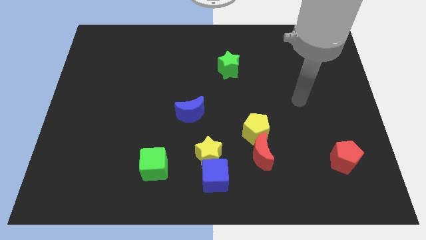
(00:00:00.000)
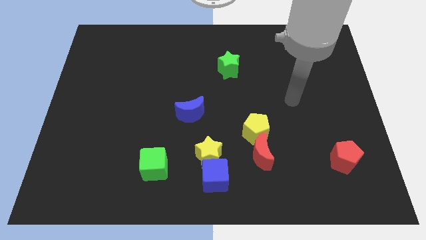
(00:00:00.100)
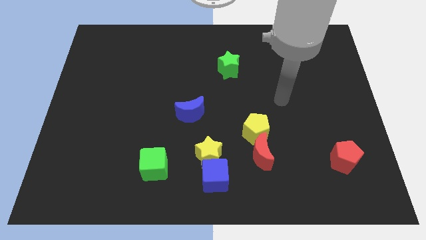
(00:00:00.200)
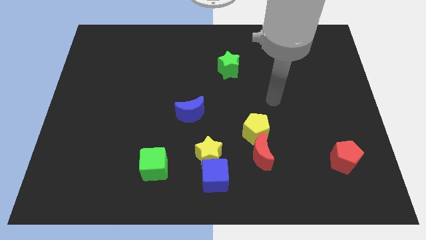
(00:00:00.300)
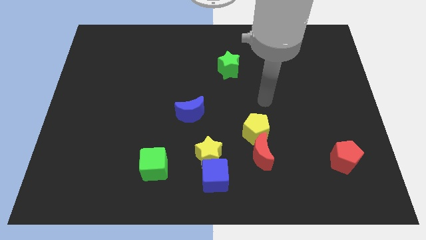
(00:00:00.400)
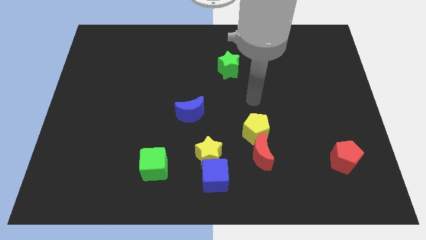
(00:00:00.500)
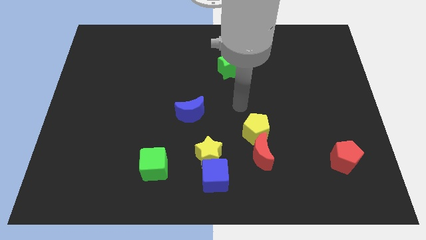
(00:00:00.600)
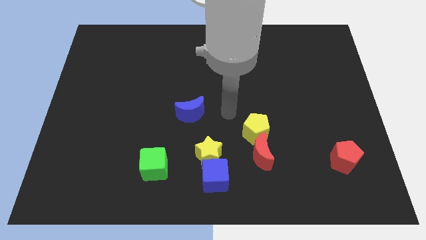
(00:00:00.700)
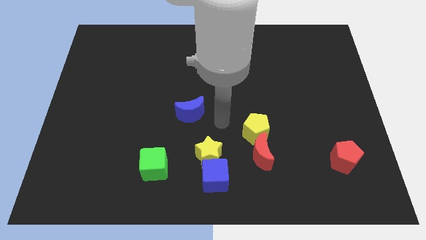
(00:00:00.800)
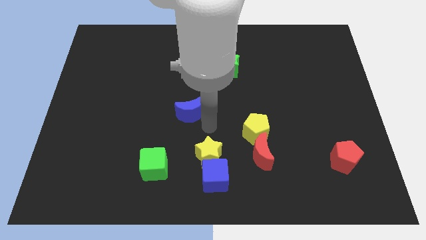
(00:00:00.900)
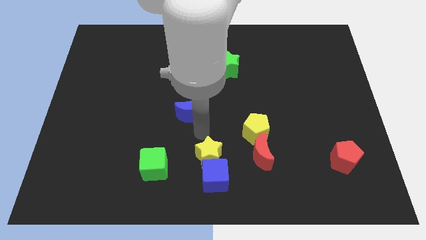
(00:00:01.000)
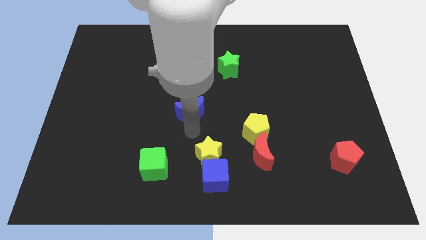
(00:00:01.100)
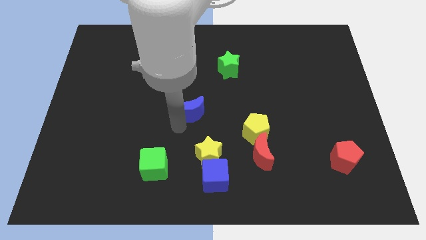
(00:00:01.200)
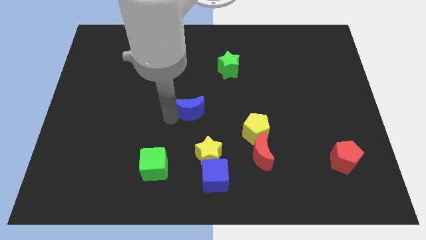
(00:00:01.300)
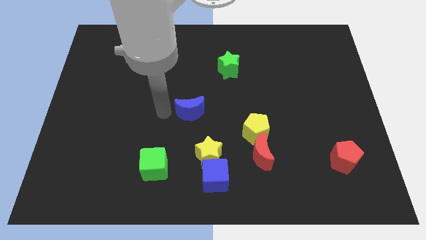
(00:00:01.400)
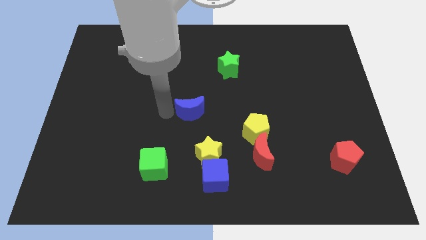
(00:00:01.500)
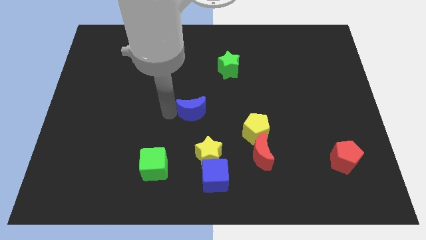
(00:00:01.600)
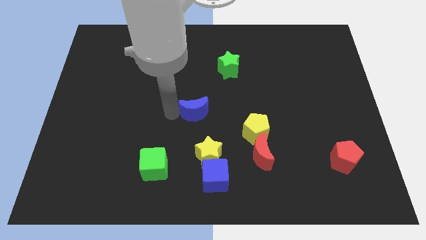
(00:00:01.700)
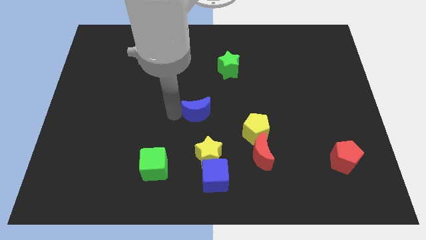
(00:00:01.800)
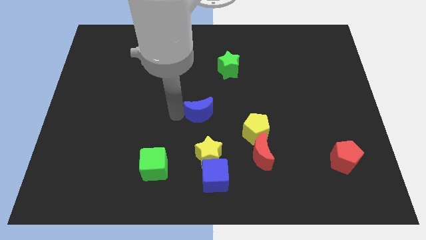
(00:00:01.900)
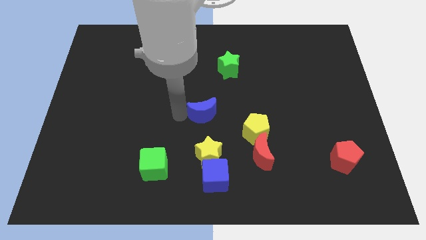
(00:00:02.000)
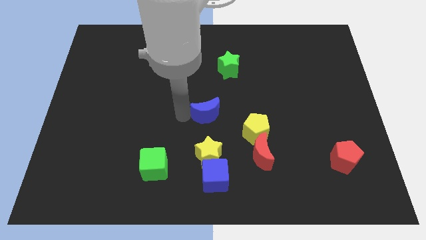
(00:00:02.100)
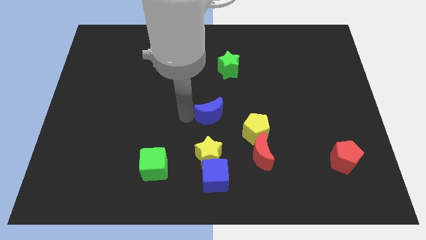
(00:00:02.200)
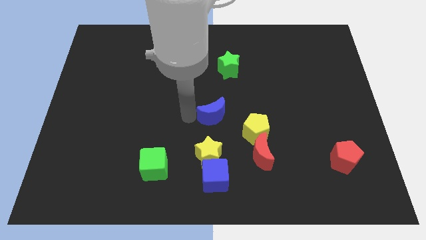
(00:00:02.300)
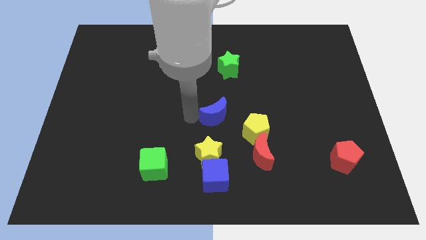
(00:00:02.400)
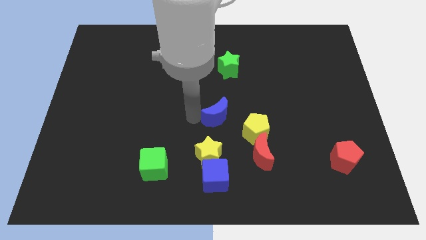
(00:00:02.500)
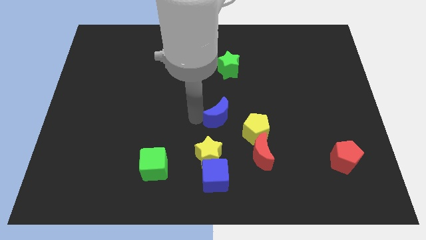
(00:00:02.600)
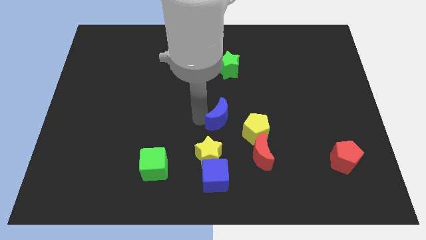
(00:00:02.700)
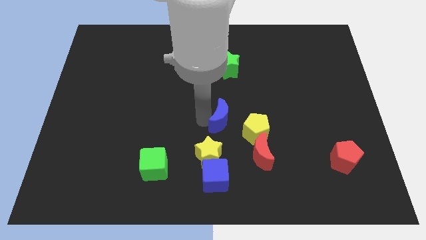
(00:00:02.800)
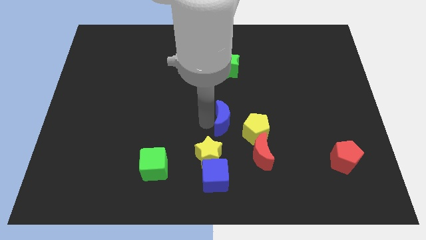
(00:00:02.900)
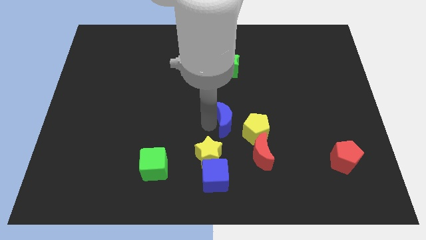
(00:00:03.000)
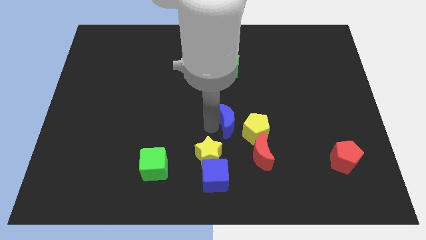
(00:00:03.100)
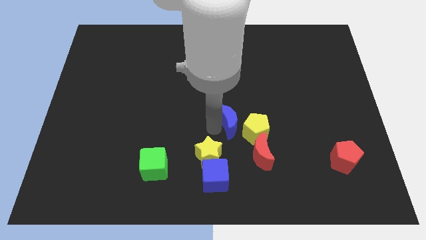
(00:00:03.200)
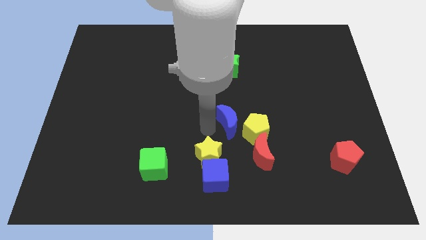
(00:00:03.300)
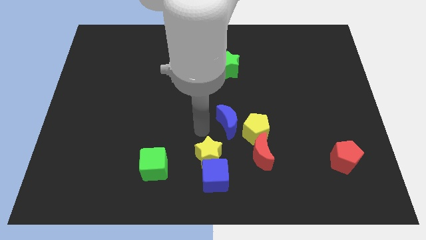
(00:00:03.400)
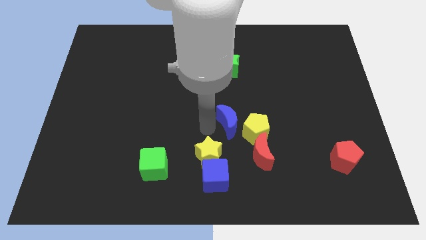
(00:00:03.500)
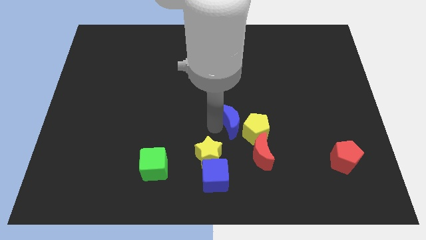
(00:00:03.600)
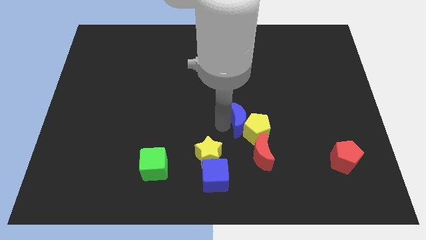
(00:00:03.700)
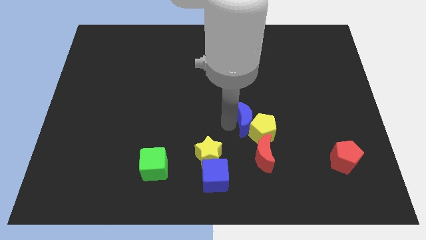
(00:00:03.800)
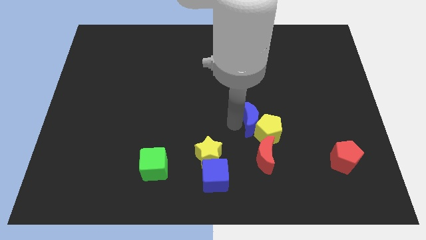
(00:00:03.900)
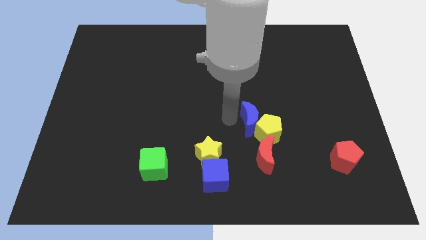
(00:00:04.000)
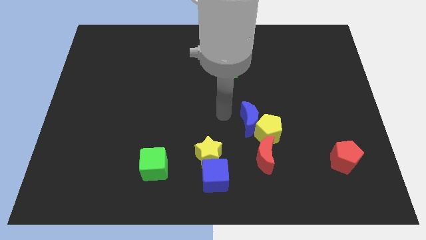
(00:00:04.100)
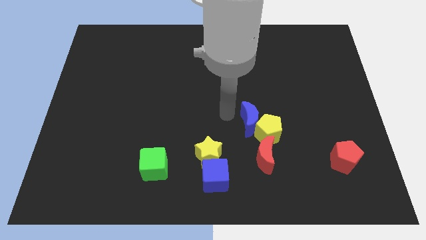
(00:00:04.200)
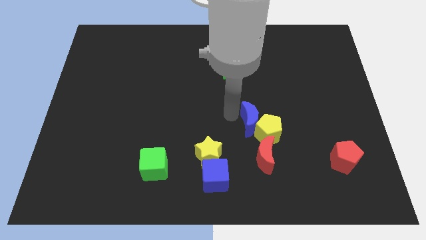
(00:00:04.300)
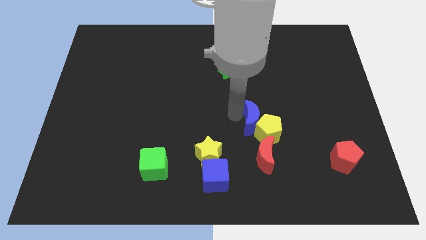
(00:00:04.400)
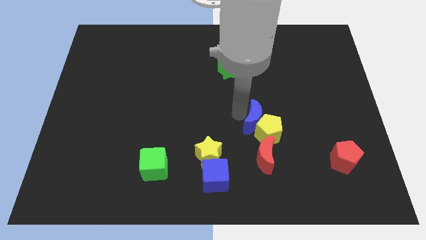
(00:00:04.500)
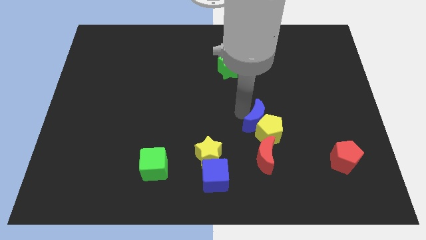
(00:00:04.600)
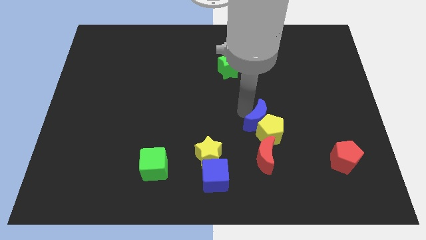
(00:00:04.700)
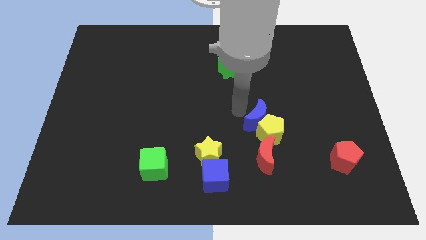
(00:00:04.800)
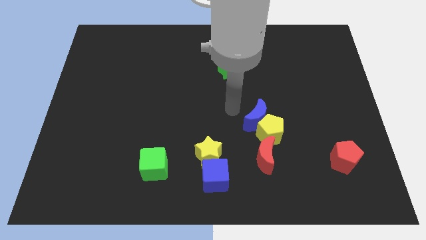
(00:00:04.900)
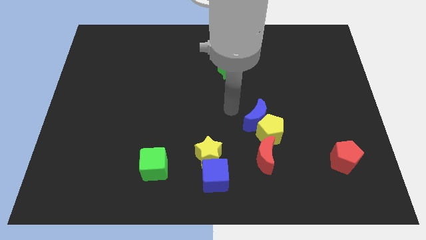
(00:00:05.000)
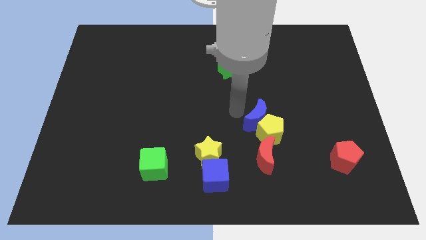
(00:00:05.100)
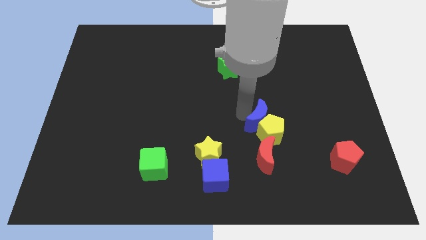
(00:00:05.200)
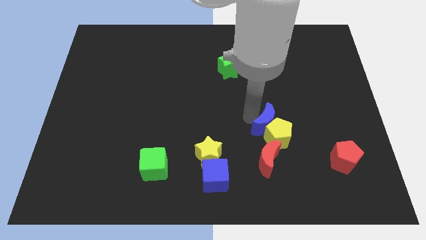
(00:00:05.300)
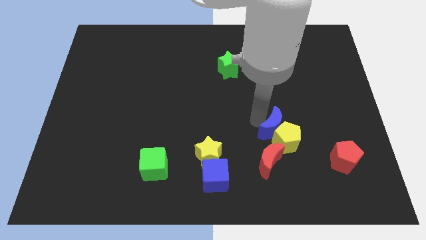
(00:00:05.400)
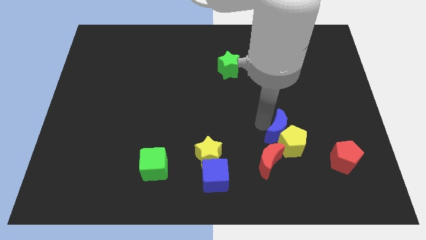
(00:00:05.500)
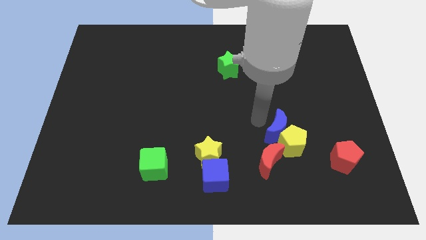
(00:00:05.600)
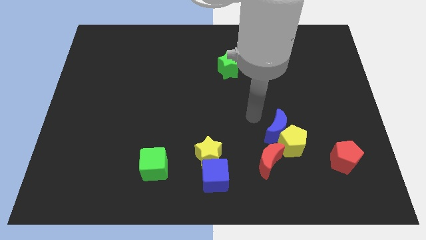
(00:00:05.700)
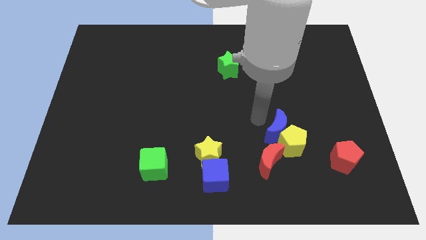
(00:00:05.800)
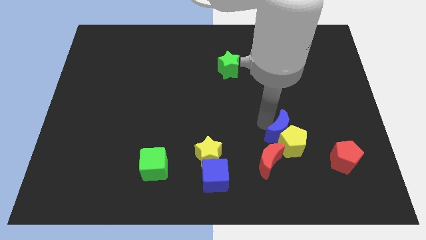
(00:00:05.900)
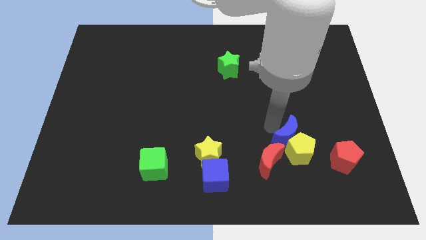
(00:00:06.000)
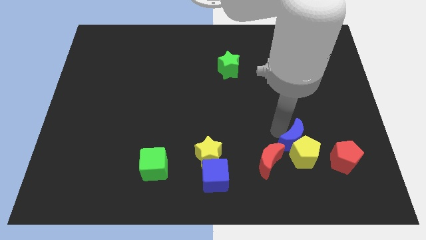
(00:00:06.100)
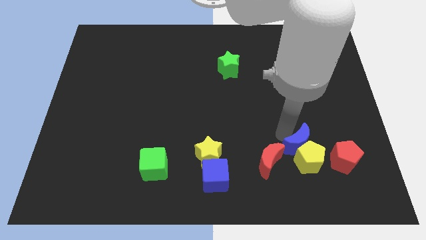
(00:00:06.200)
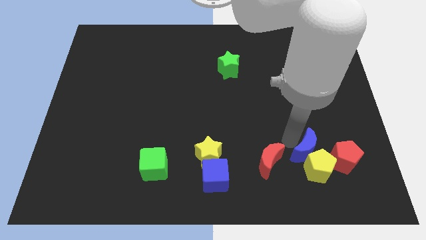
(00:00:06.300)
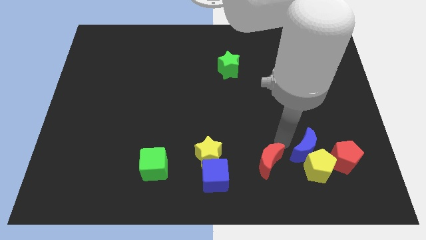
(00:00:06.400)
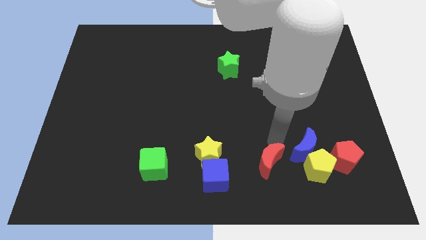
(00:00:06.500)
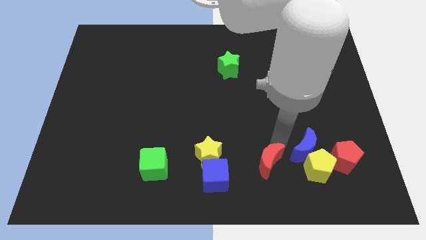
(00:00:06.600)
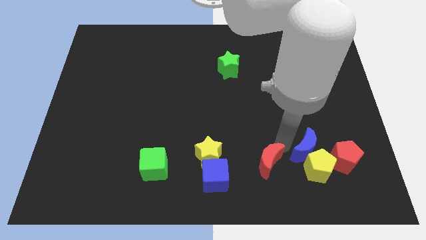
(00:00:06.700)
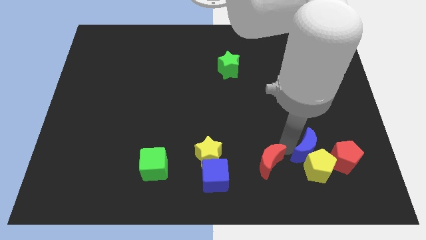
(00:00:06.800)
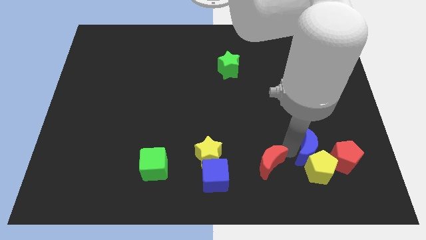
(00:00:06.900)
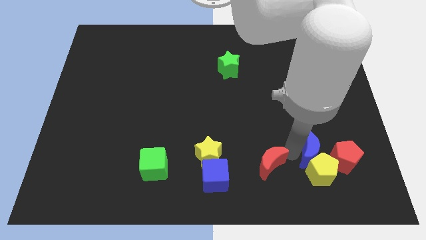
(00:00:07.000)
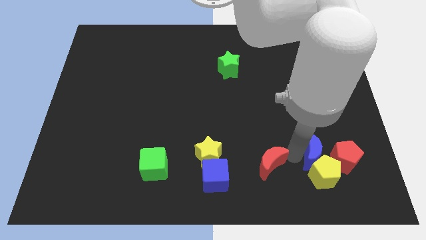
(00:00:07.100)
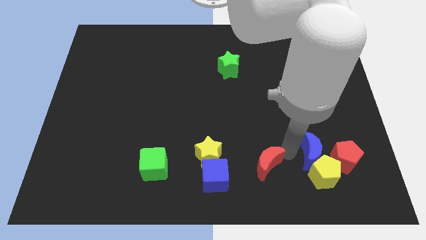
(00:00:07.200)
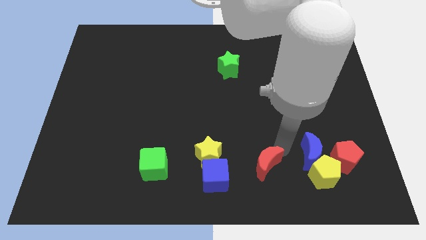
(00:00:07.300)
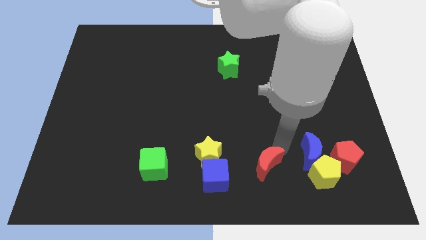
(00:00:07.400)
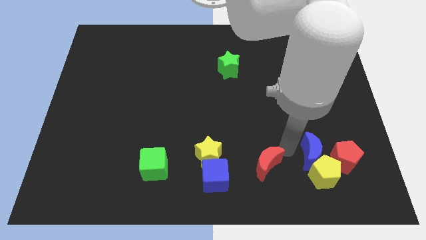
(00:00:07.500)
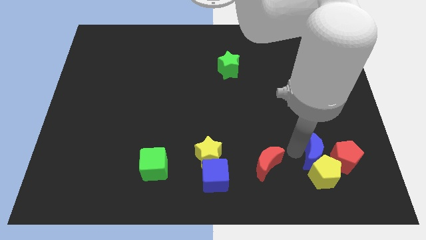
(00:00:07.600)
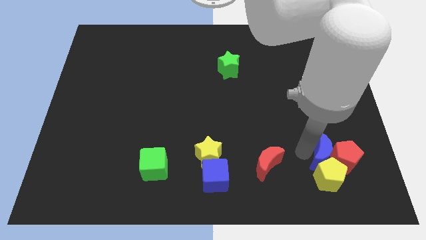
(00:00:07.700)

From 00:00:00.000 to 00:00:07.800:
slide the blue moon to the red pentagon
